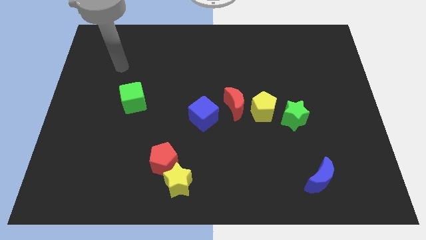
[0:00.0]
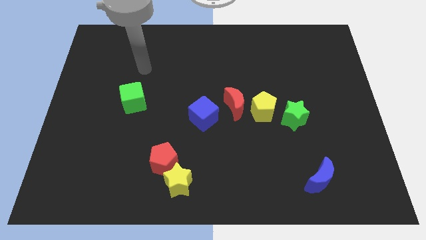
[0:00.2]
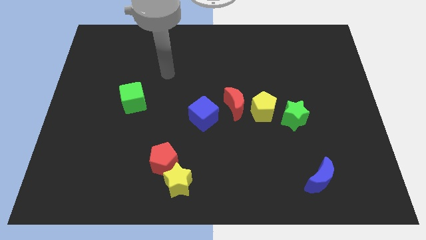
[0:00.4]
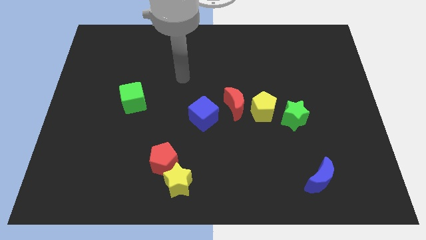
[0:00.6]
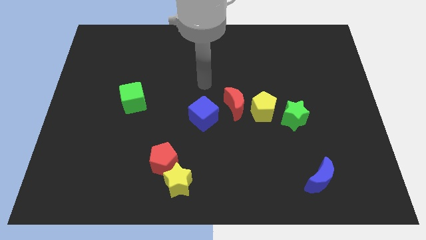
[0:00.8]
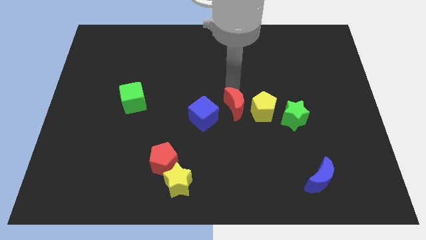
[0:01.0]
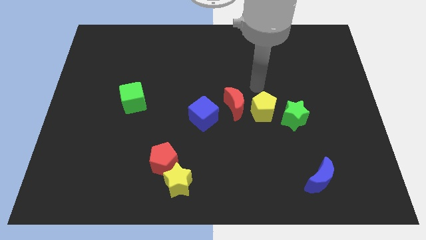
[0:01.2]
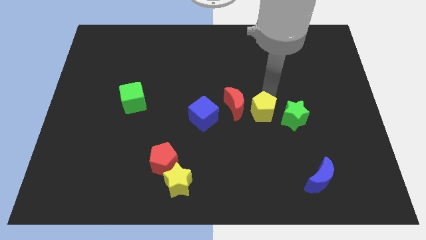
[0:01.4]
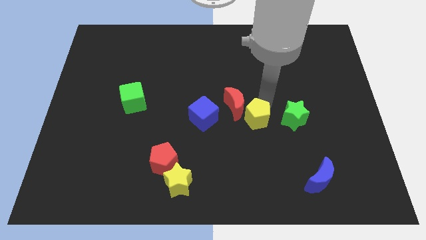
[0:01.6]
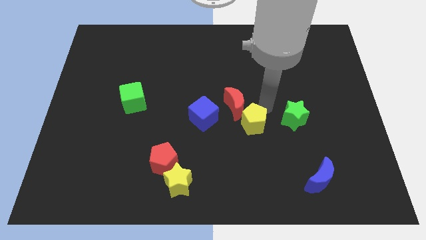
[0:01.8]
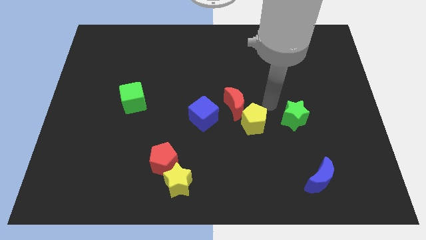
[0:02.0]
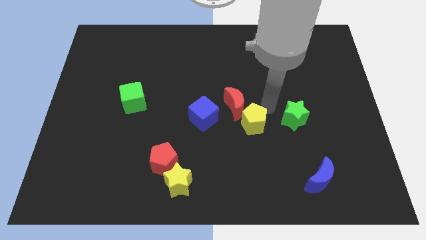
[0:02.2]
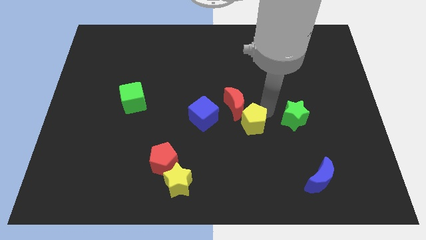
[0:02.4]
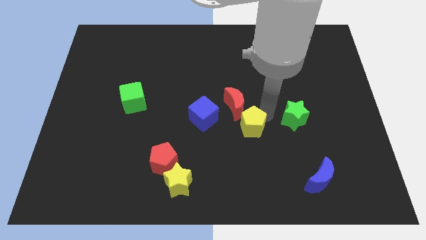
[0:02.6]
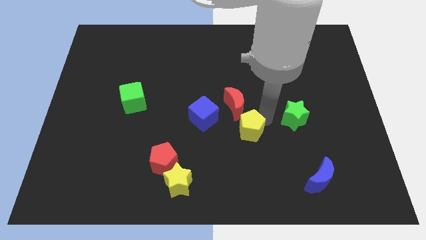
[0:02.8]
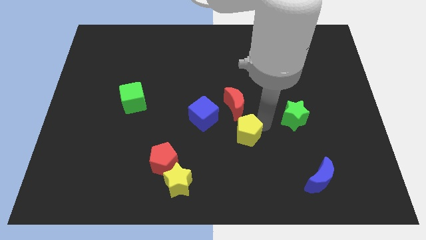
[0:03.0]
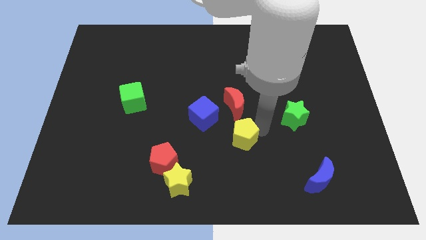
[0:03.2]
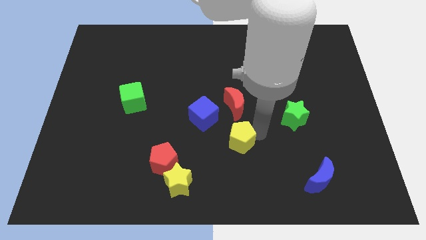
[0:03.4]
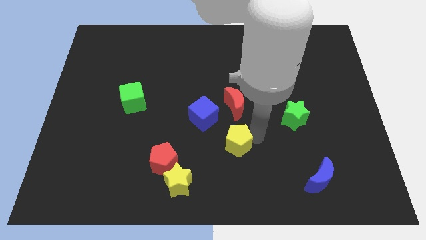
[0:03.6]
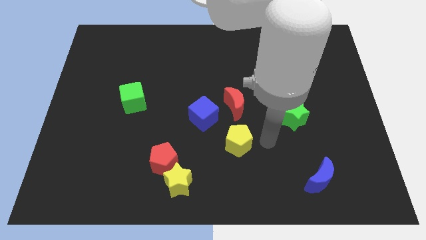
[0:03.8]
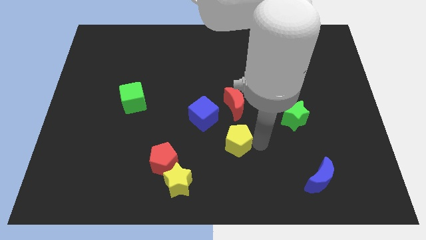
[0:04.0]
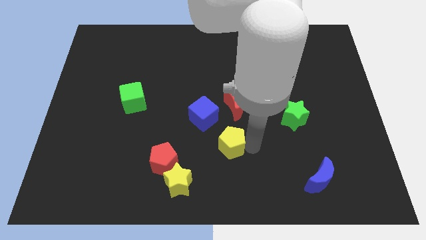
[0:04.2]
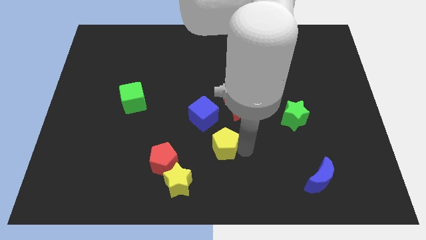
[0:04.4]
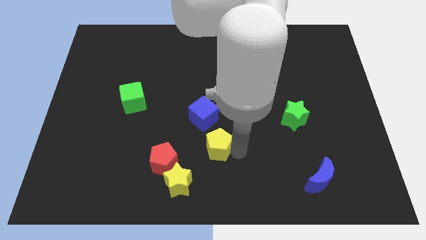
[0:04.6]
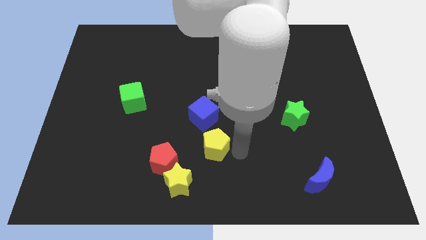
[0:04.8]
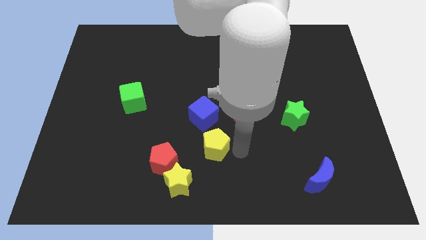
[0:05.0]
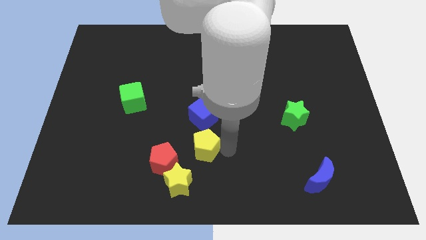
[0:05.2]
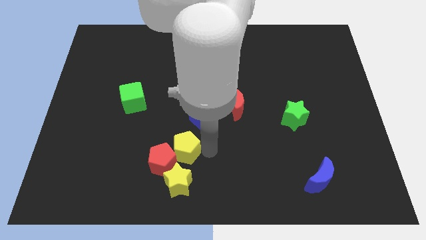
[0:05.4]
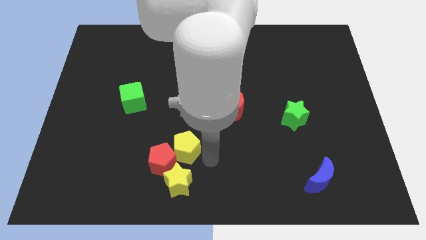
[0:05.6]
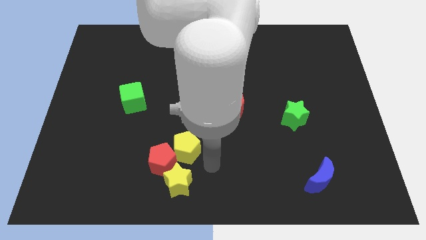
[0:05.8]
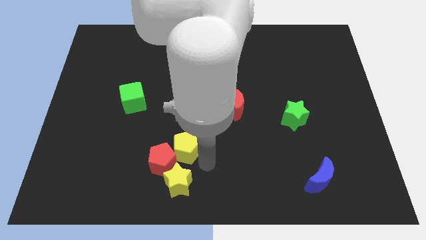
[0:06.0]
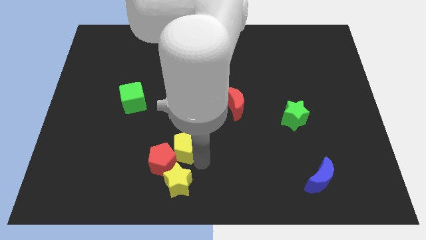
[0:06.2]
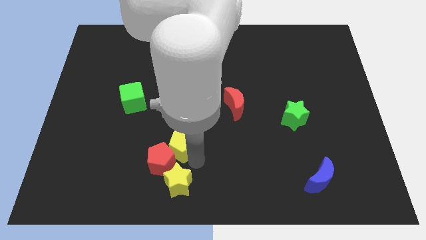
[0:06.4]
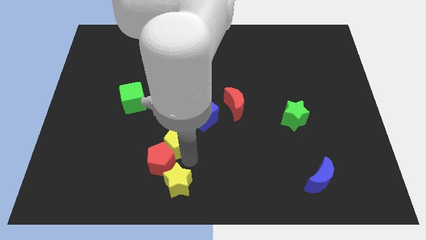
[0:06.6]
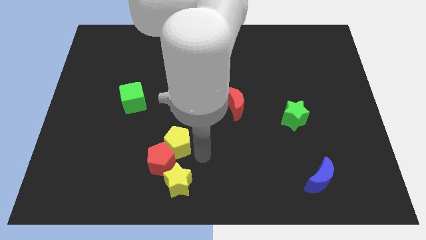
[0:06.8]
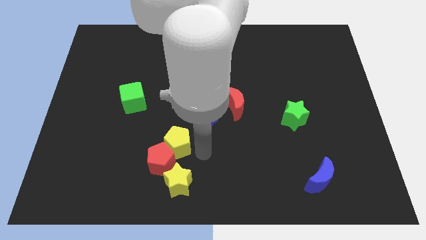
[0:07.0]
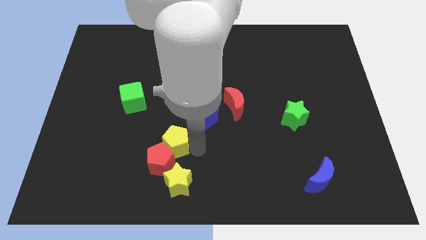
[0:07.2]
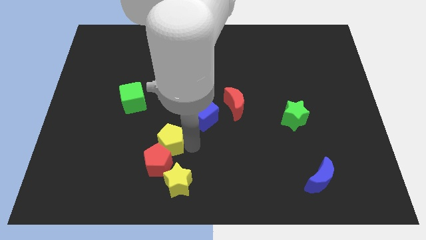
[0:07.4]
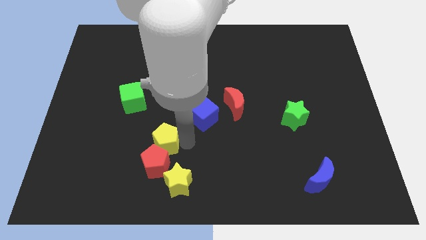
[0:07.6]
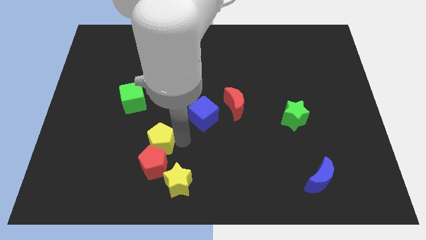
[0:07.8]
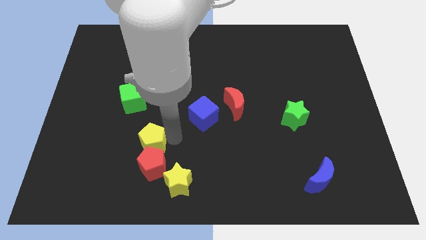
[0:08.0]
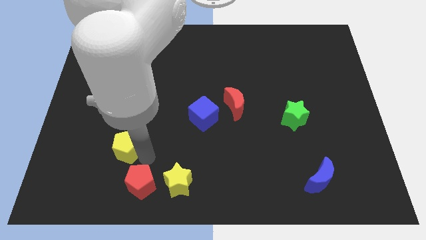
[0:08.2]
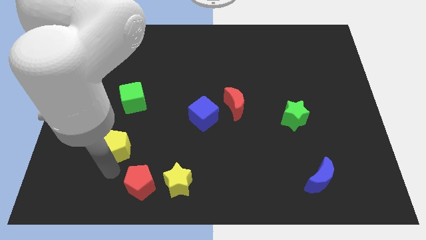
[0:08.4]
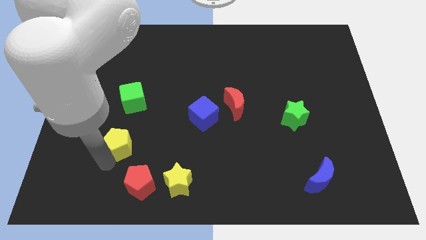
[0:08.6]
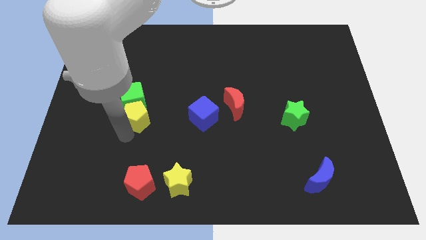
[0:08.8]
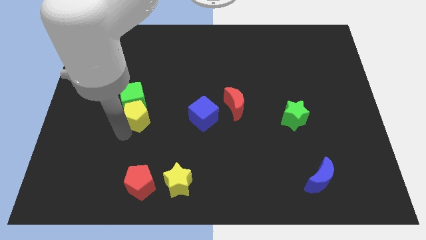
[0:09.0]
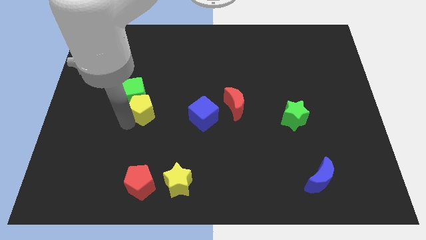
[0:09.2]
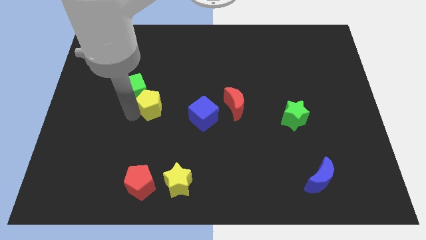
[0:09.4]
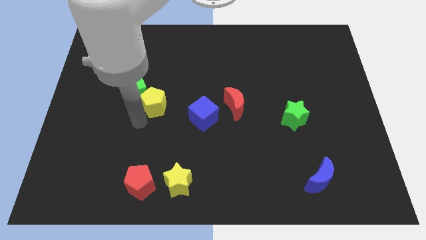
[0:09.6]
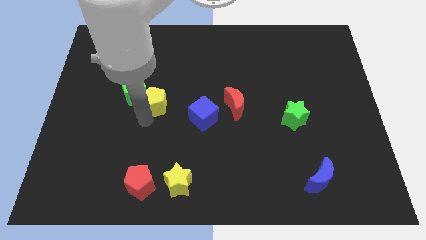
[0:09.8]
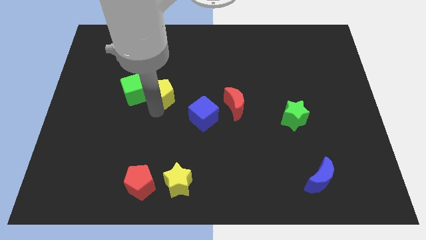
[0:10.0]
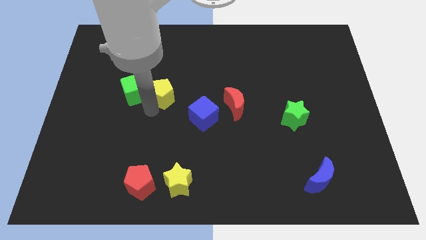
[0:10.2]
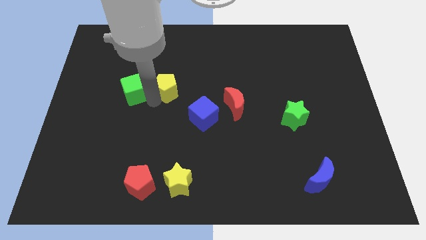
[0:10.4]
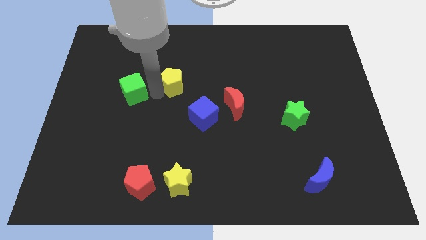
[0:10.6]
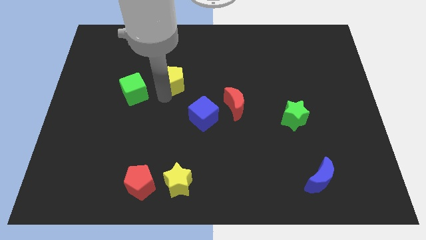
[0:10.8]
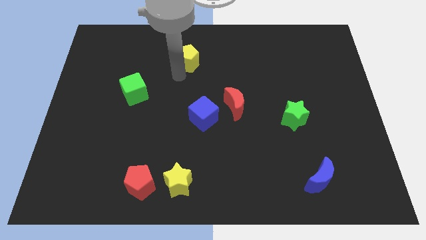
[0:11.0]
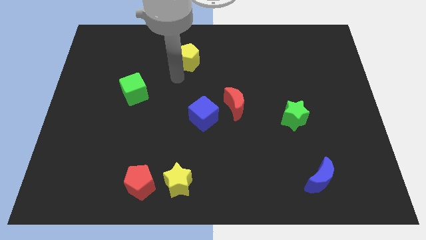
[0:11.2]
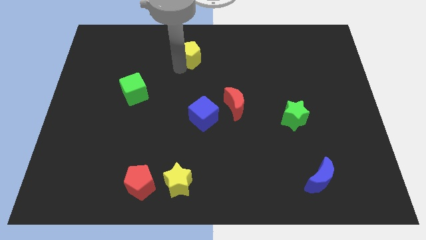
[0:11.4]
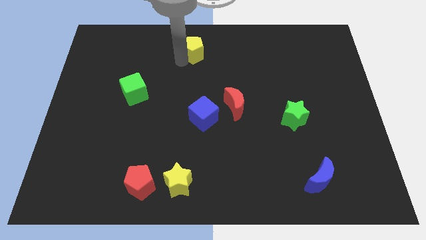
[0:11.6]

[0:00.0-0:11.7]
put the yellow pentagon to the top
